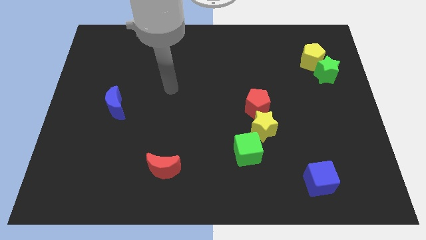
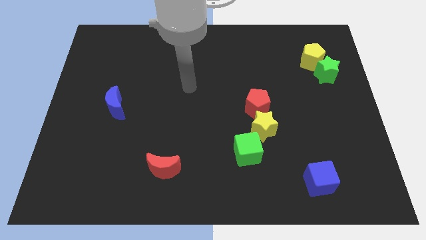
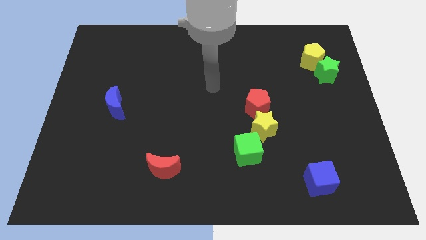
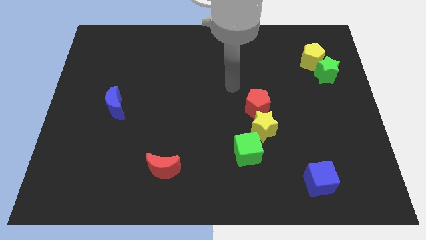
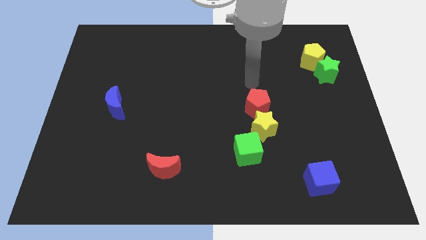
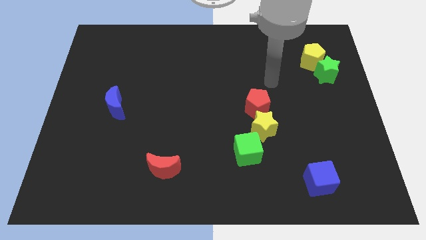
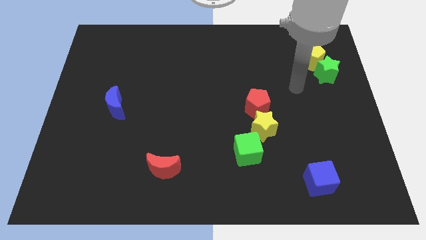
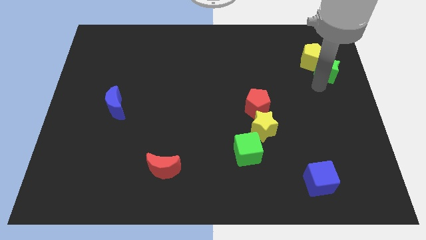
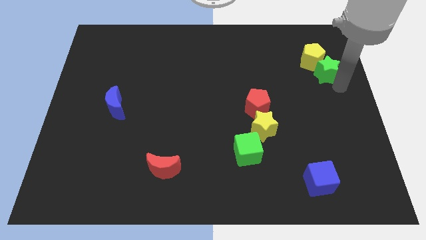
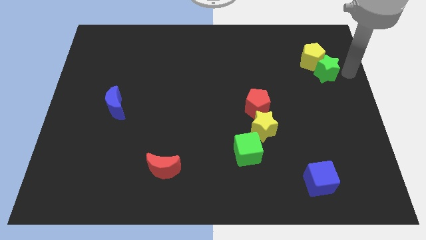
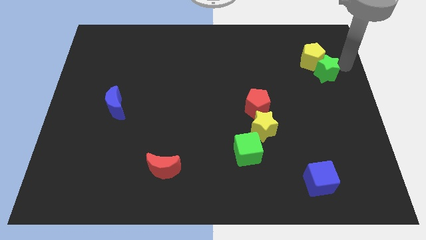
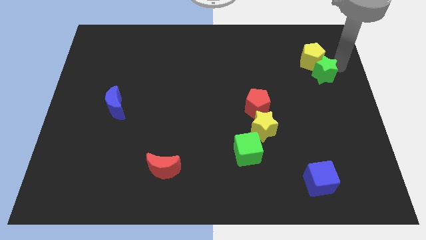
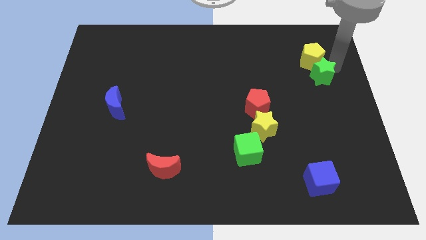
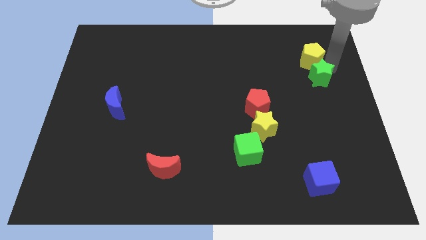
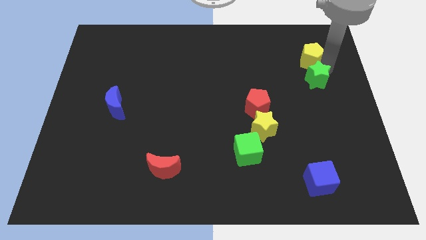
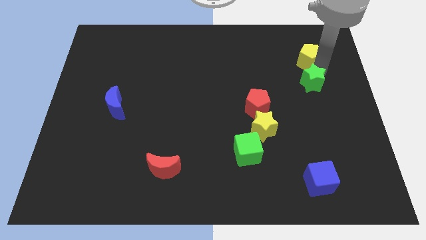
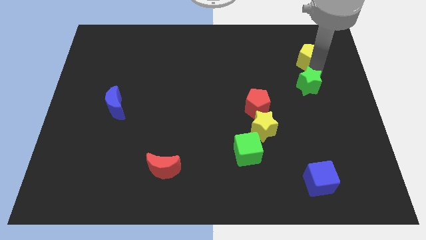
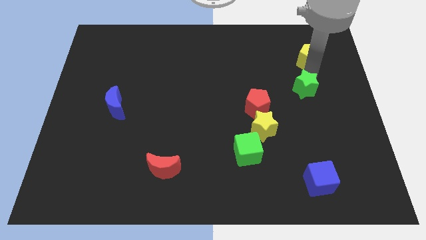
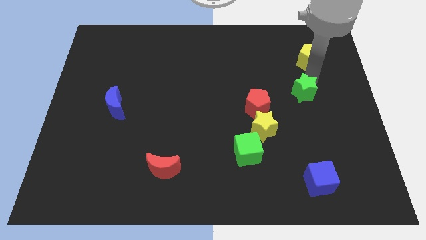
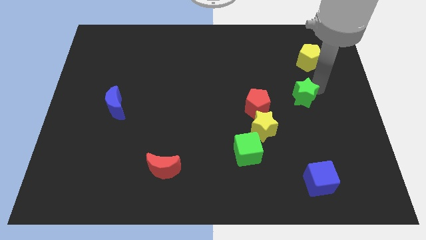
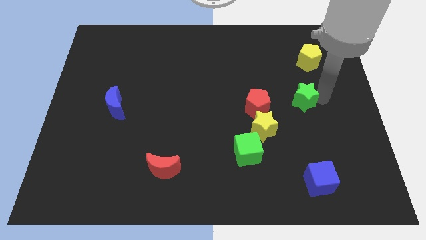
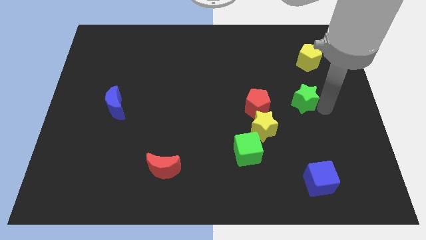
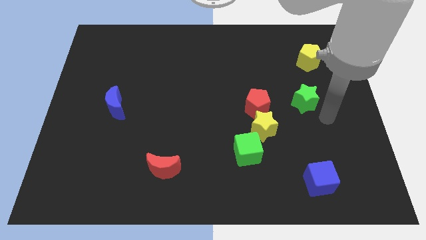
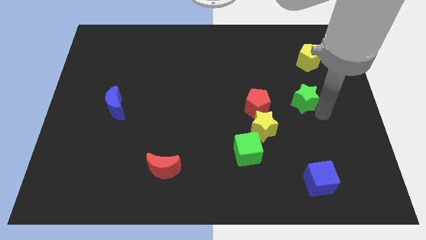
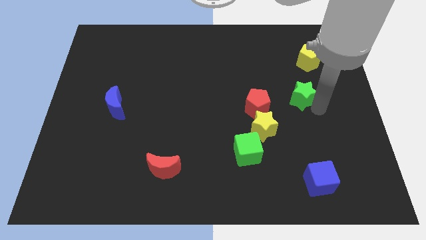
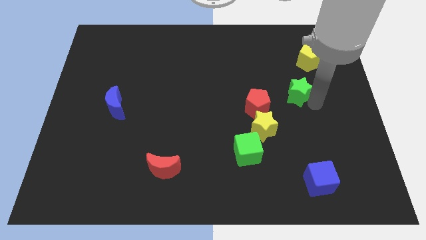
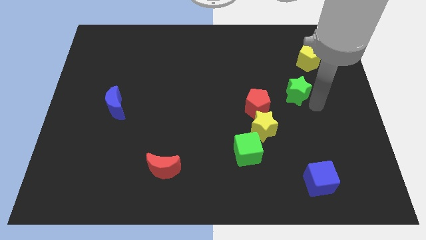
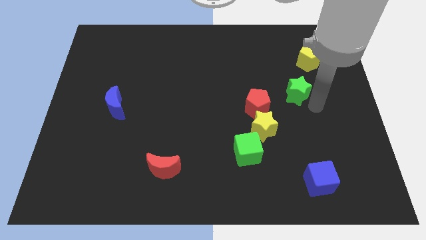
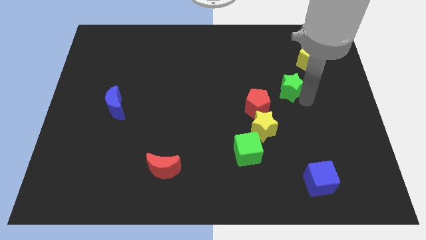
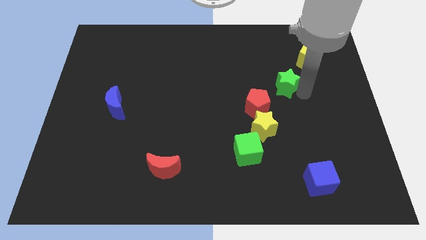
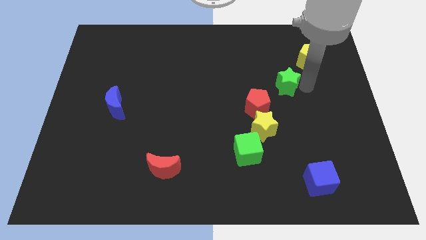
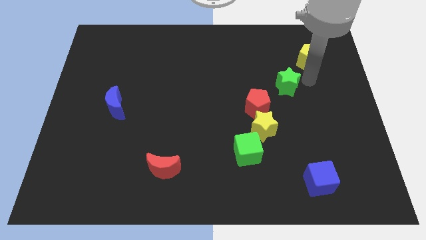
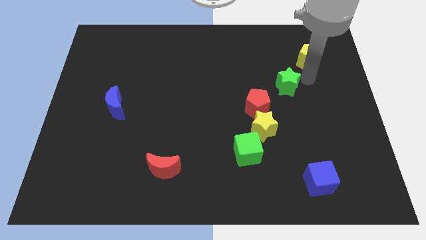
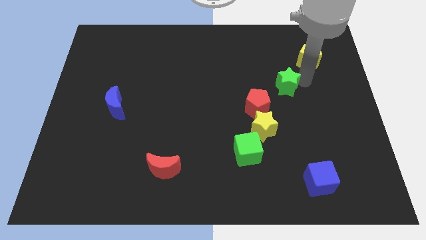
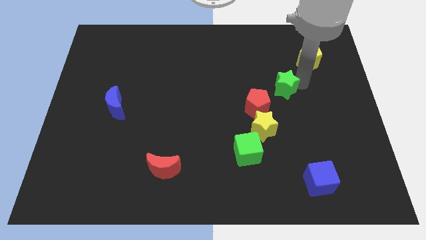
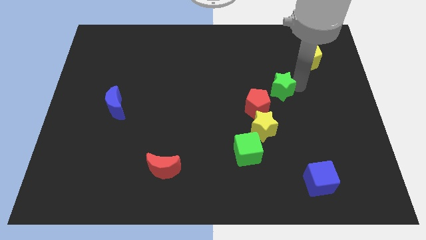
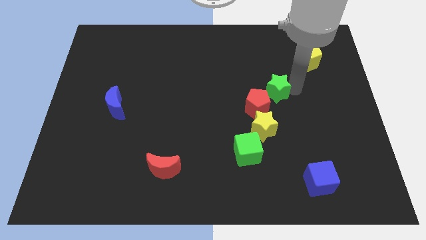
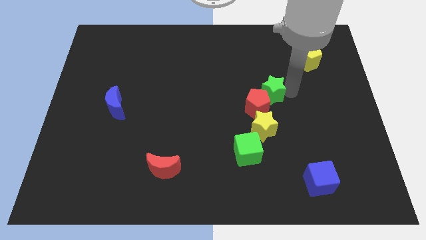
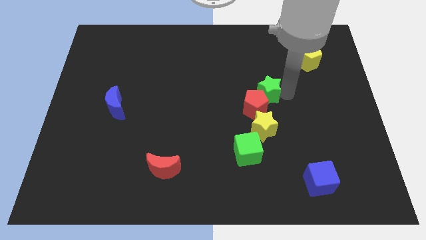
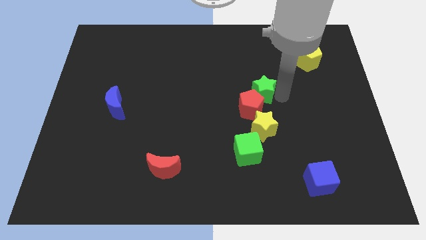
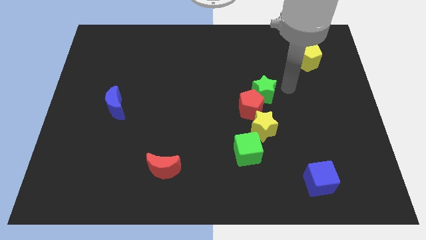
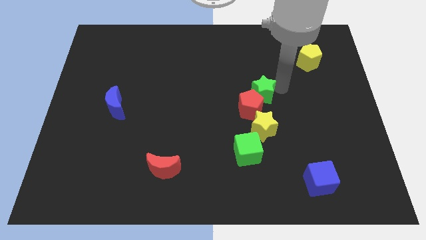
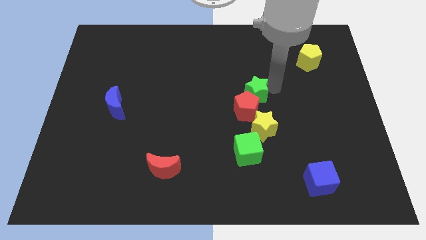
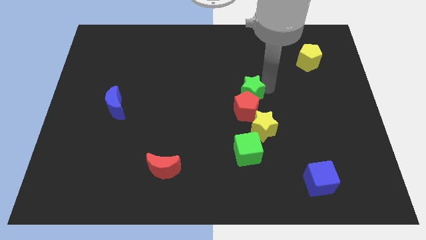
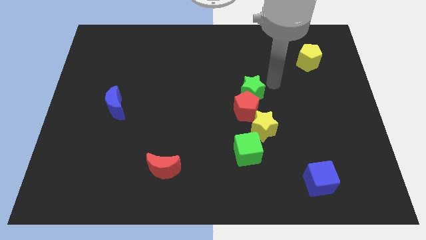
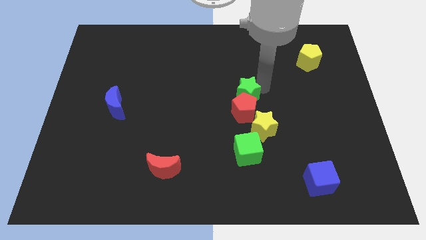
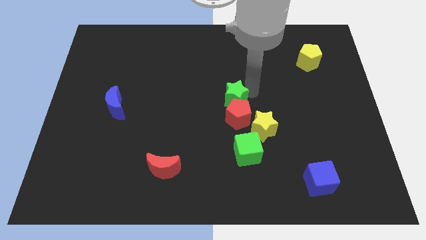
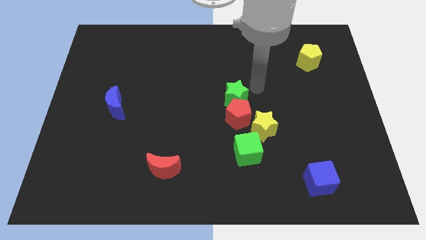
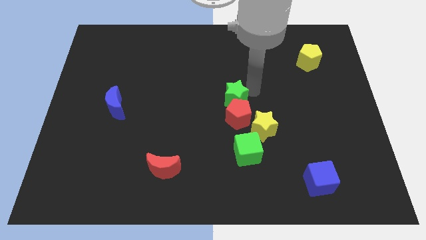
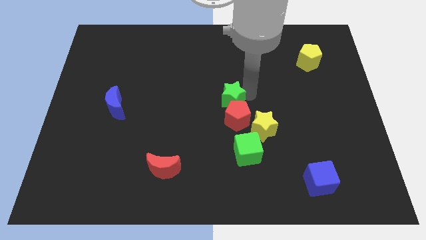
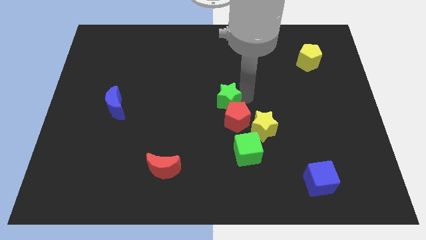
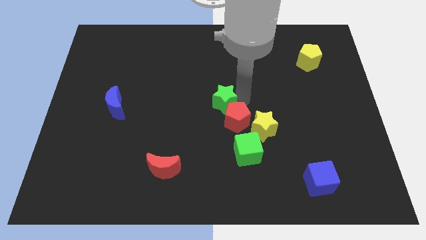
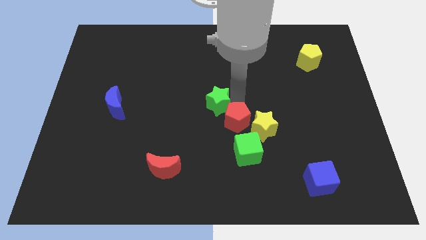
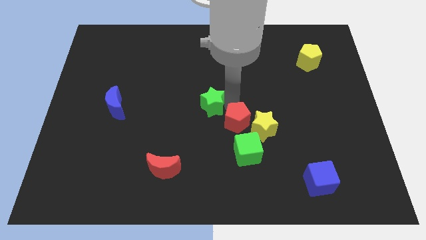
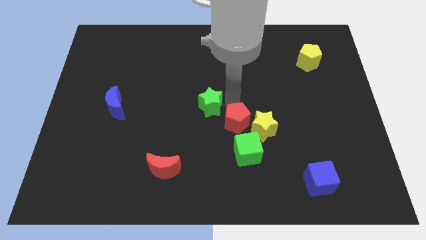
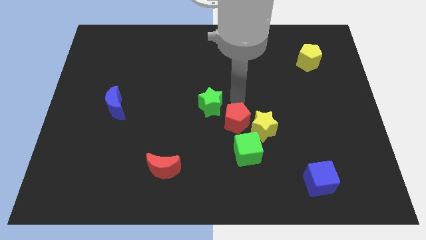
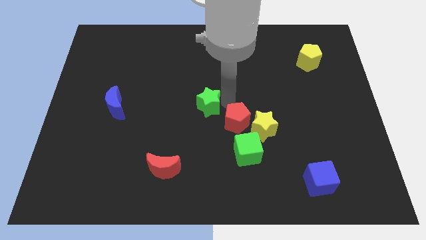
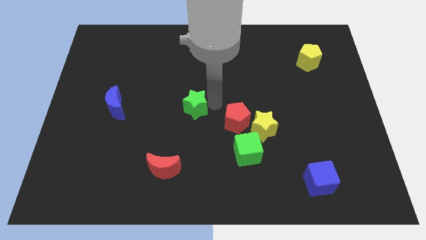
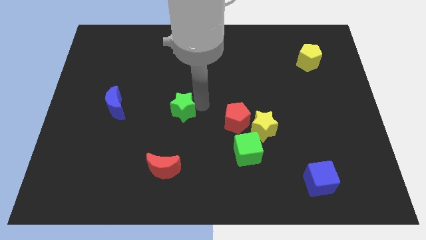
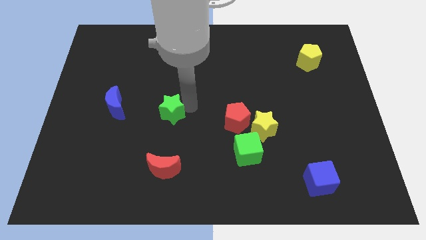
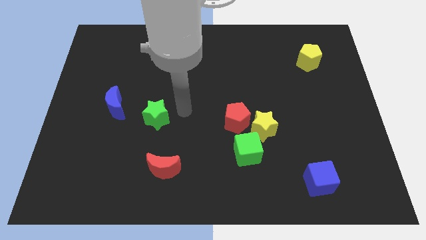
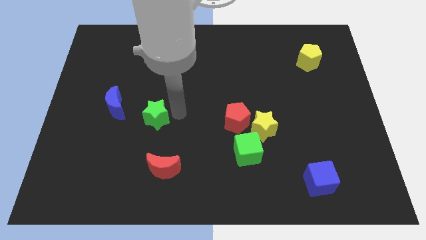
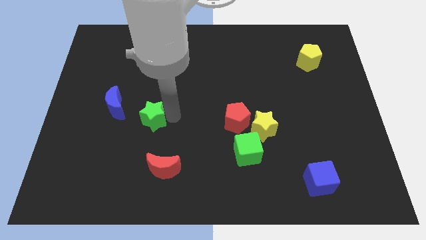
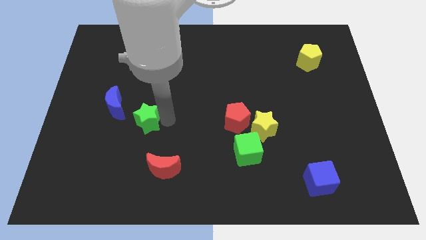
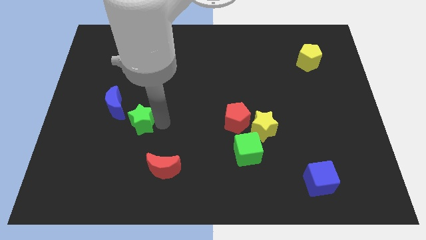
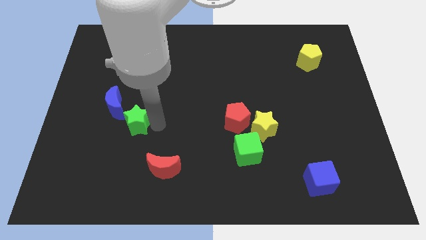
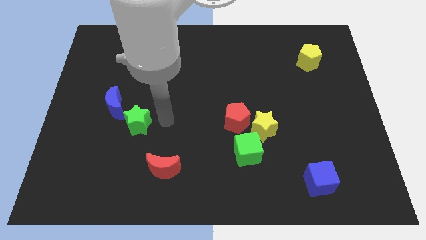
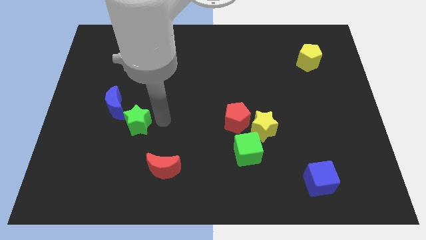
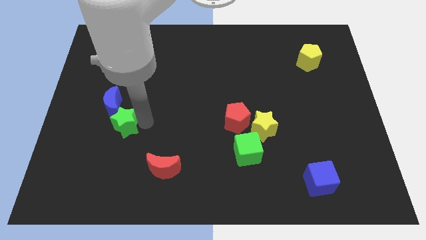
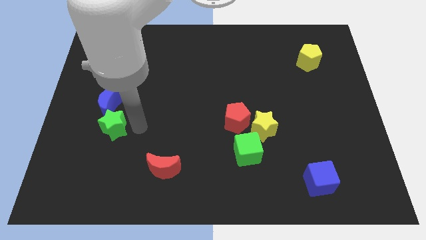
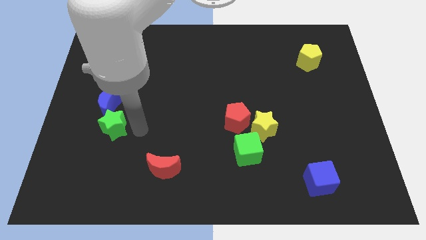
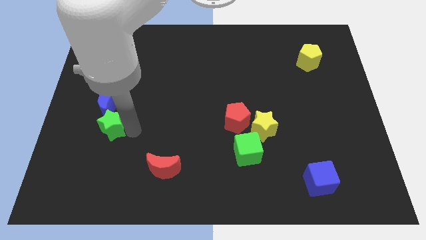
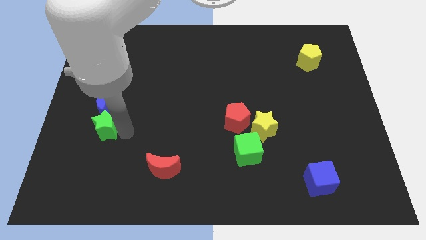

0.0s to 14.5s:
put the green star to the bottom left side of the blue moon

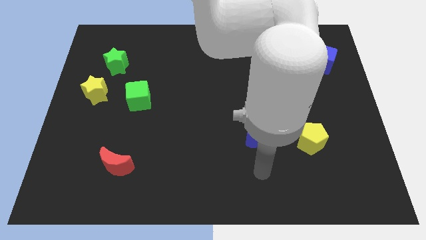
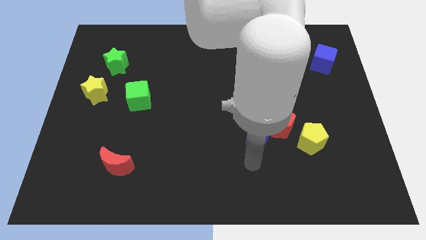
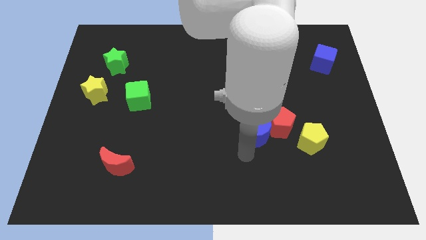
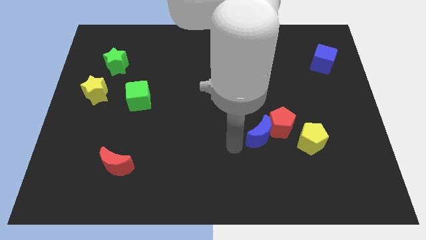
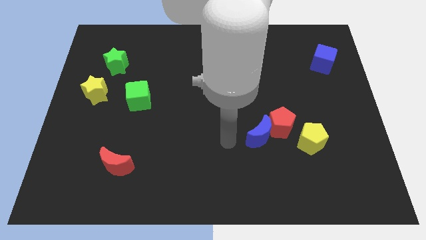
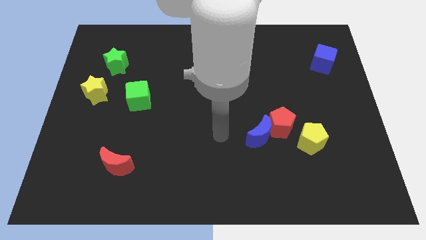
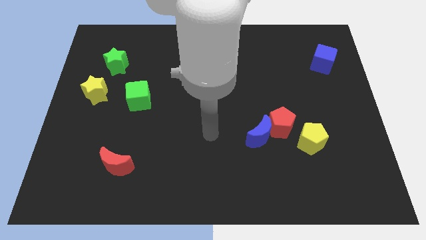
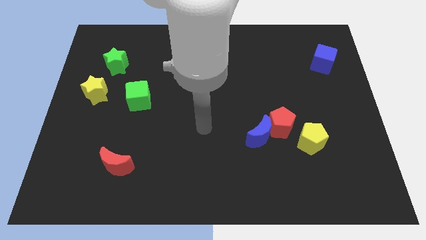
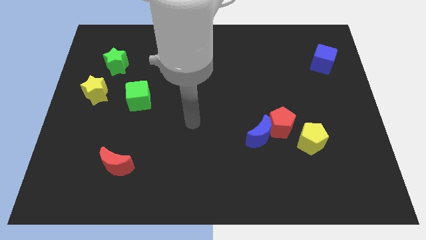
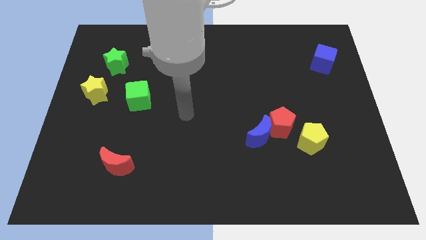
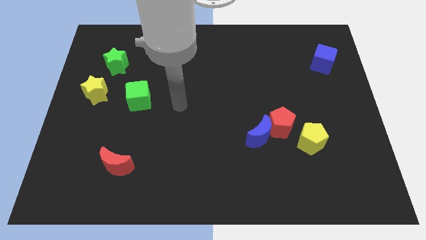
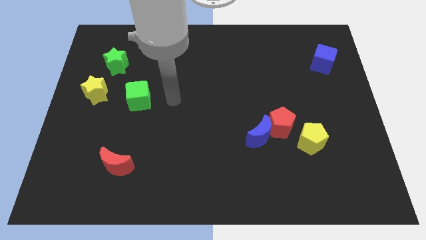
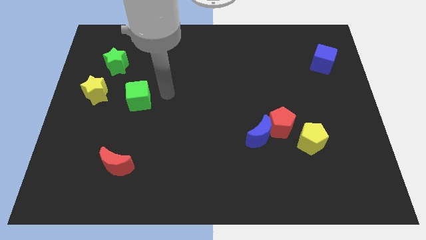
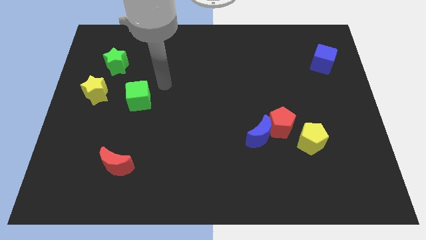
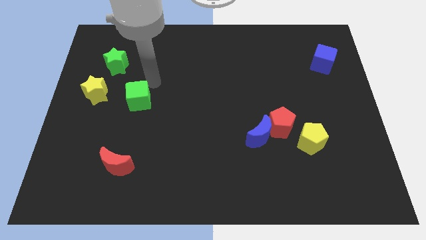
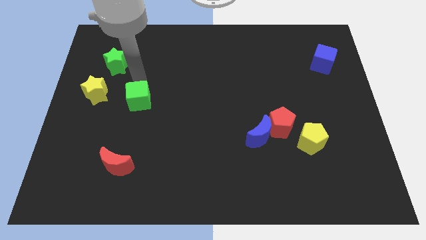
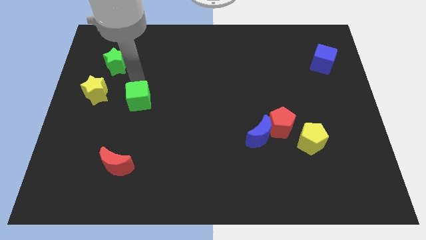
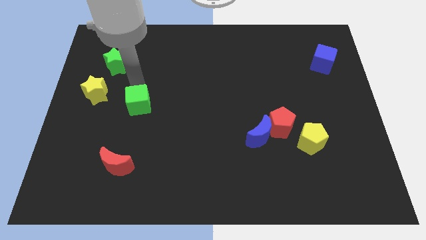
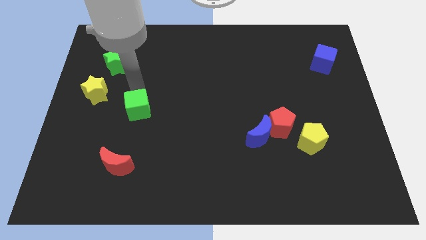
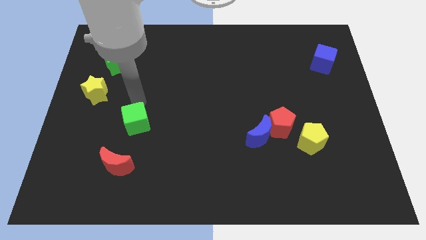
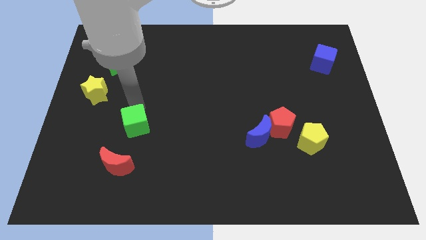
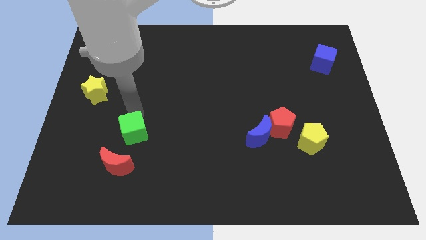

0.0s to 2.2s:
push the green cube to the top right side of the red moon
